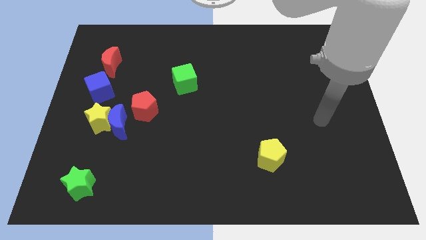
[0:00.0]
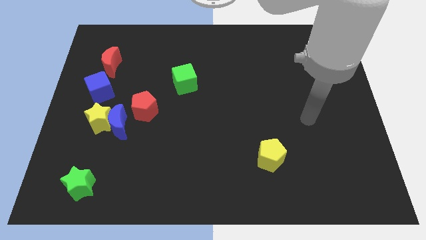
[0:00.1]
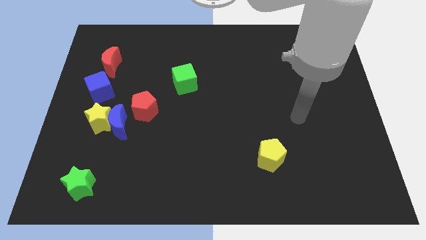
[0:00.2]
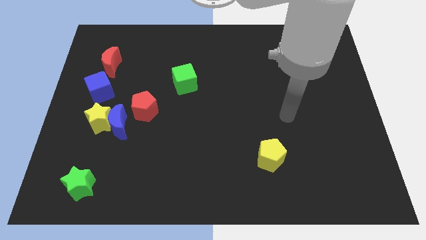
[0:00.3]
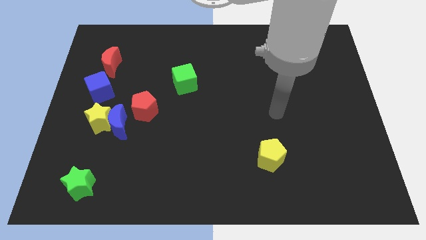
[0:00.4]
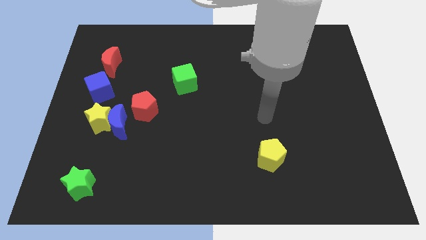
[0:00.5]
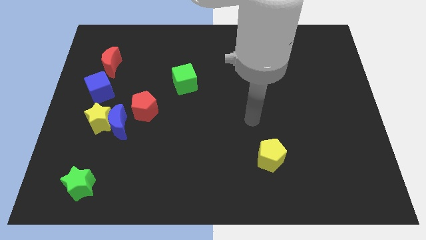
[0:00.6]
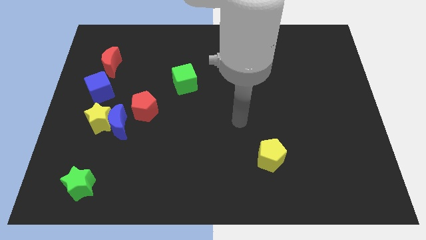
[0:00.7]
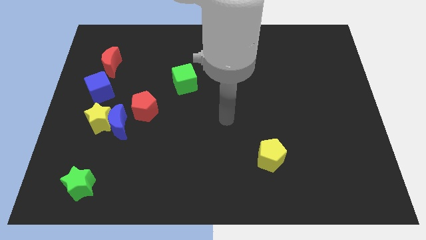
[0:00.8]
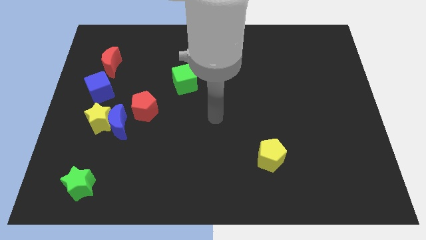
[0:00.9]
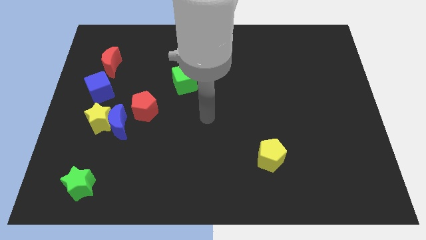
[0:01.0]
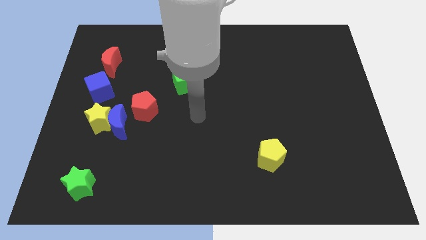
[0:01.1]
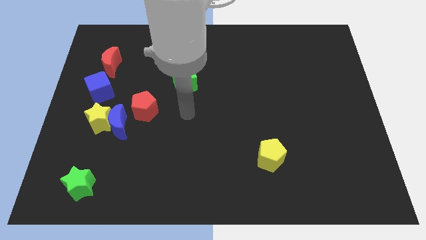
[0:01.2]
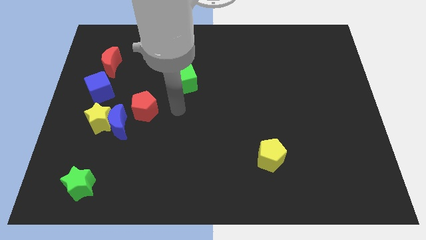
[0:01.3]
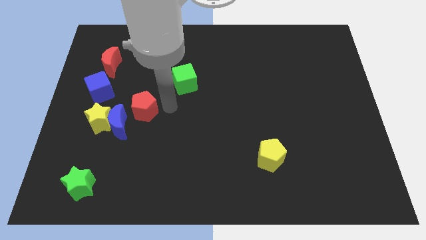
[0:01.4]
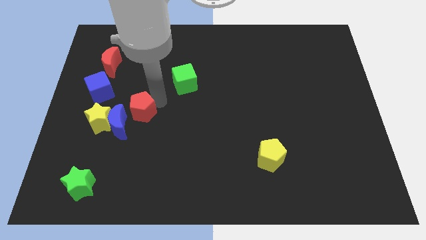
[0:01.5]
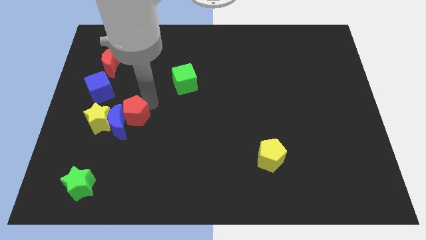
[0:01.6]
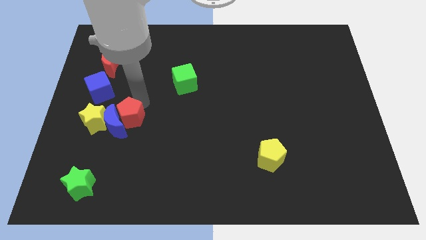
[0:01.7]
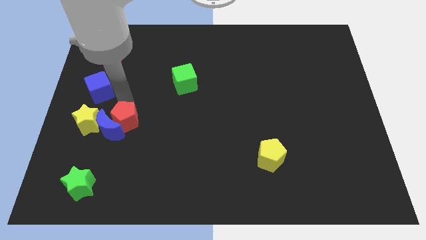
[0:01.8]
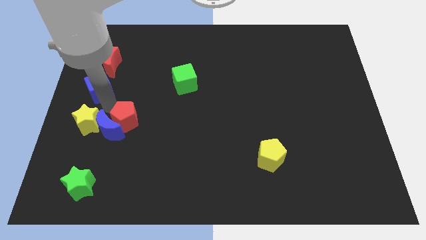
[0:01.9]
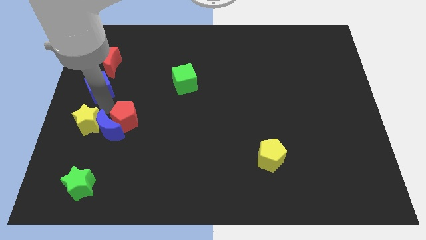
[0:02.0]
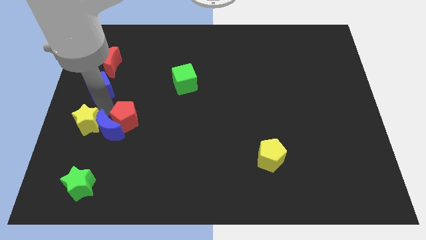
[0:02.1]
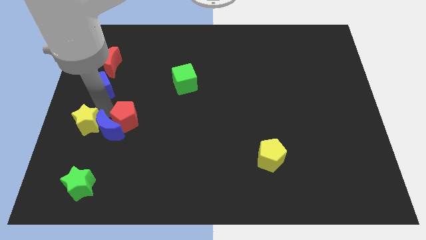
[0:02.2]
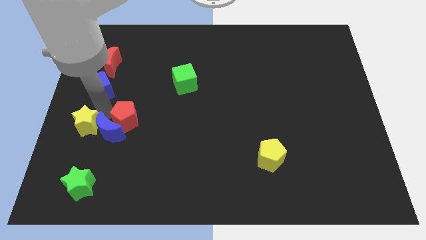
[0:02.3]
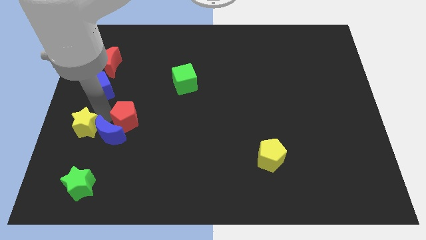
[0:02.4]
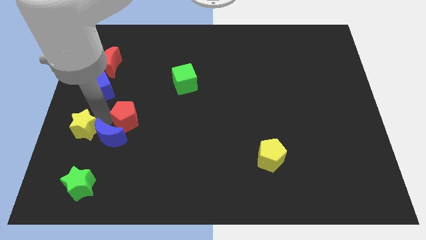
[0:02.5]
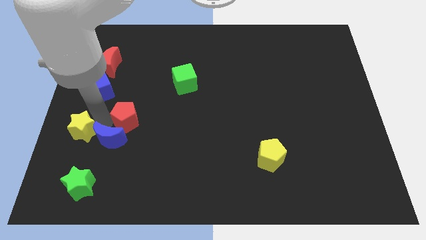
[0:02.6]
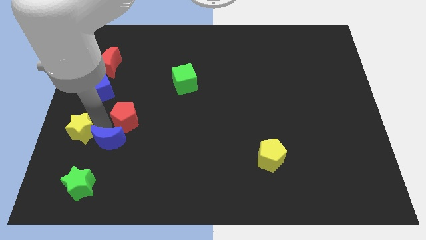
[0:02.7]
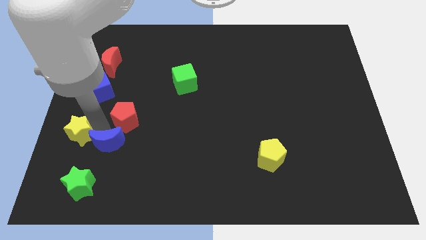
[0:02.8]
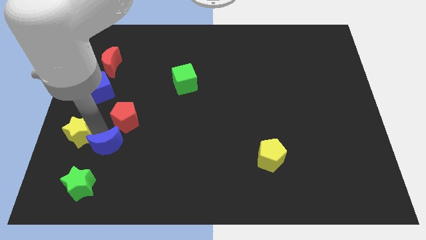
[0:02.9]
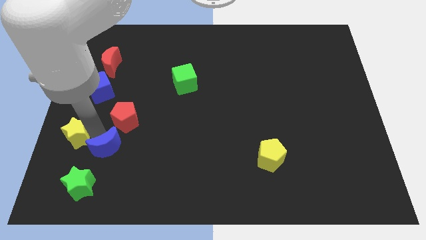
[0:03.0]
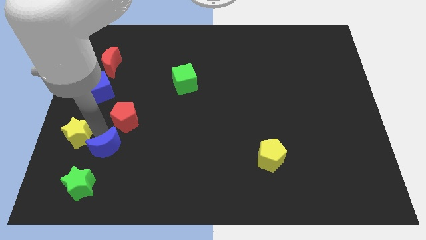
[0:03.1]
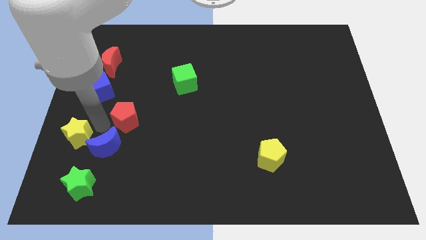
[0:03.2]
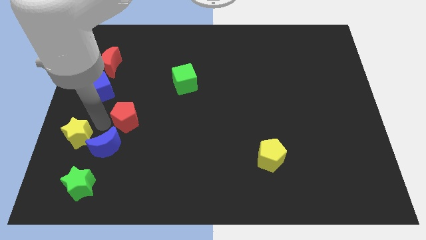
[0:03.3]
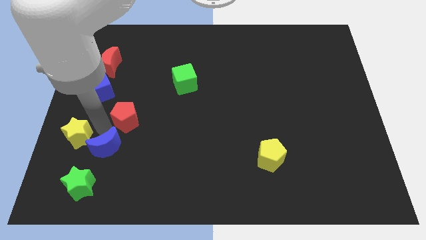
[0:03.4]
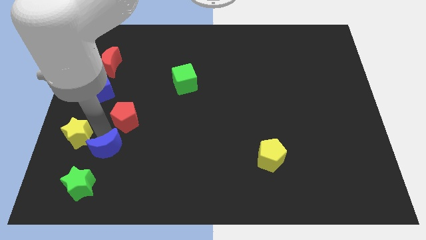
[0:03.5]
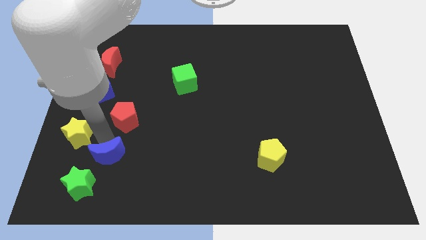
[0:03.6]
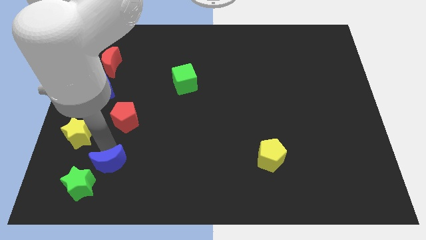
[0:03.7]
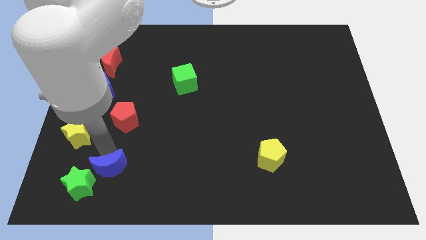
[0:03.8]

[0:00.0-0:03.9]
move the blue moon away from the yellow star and red pentagon

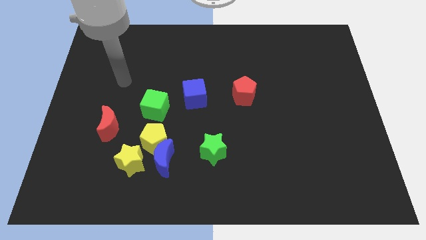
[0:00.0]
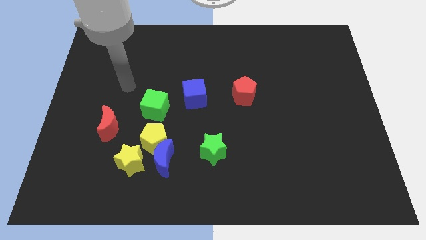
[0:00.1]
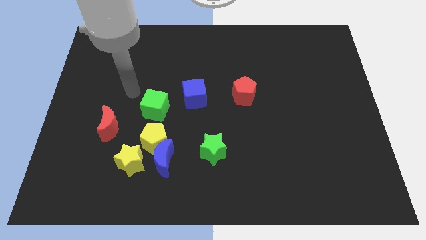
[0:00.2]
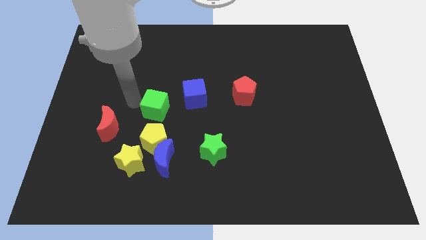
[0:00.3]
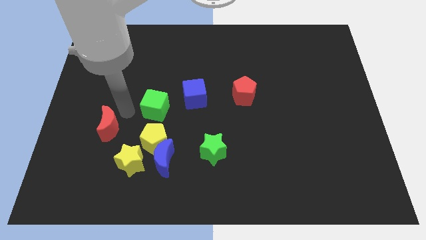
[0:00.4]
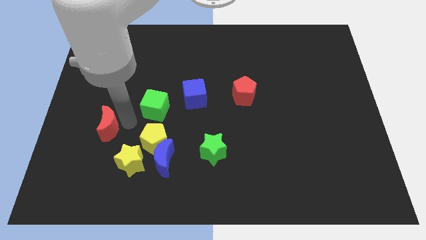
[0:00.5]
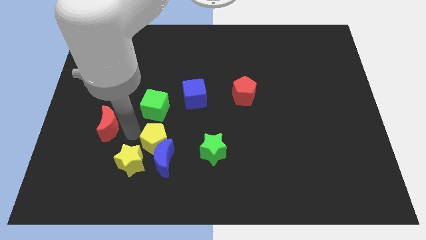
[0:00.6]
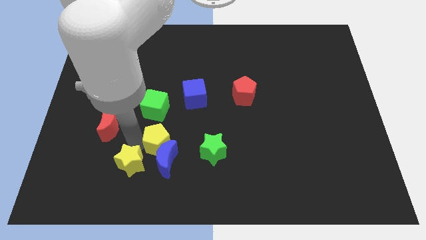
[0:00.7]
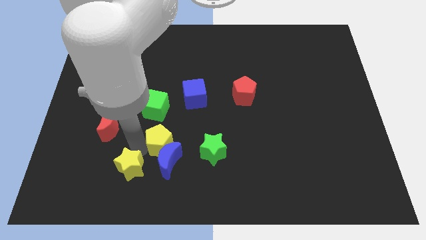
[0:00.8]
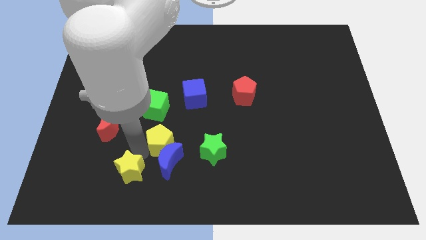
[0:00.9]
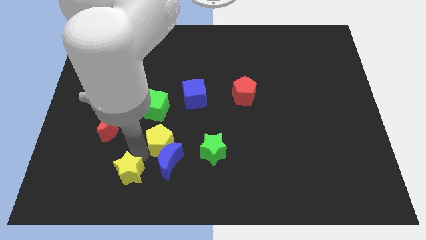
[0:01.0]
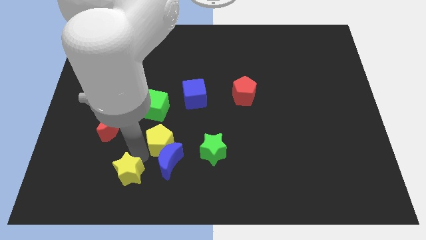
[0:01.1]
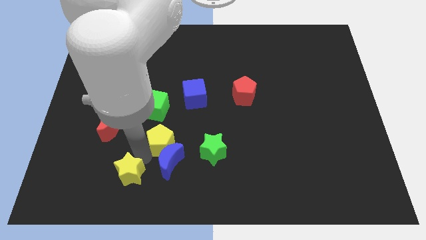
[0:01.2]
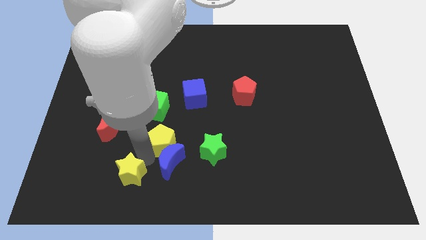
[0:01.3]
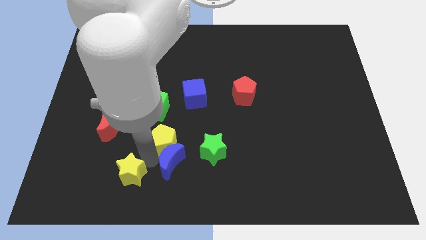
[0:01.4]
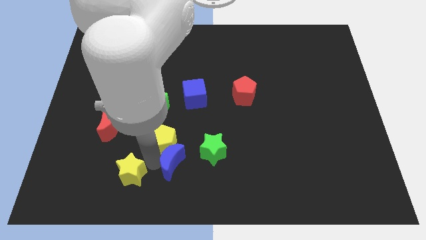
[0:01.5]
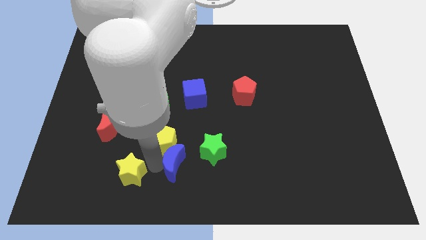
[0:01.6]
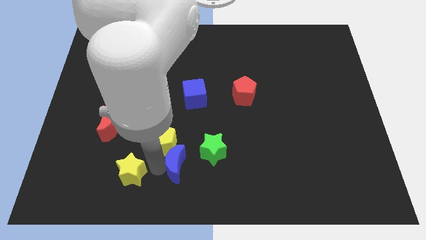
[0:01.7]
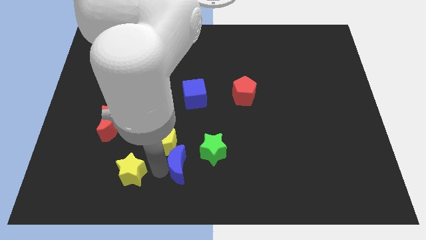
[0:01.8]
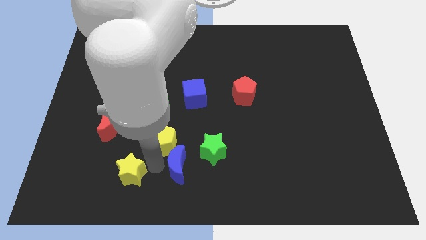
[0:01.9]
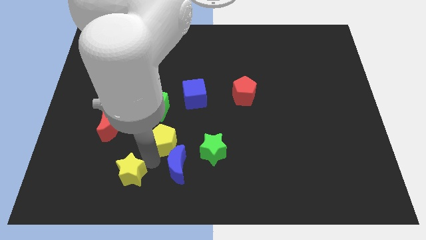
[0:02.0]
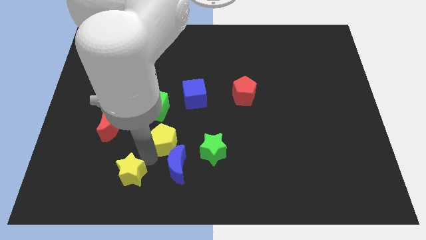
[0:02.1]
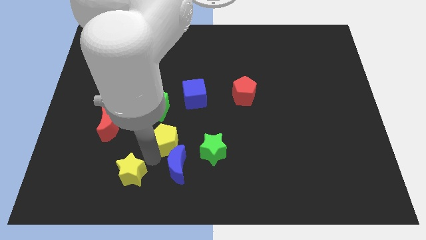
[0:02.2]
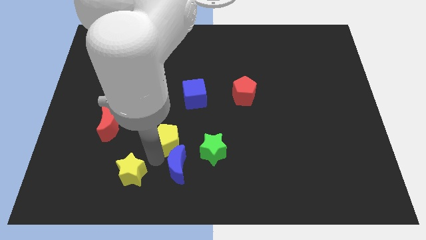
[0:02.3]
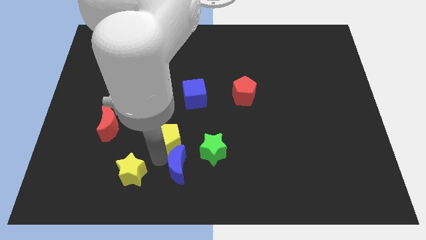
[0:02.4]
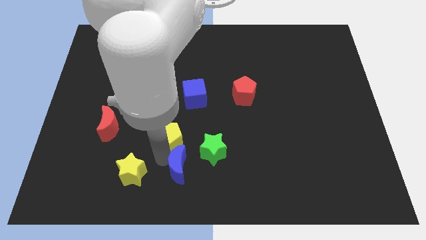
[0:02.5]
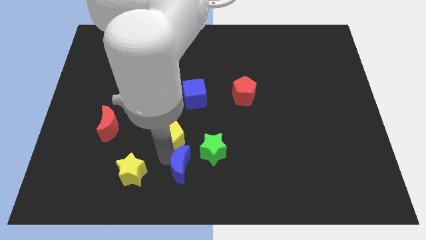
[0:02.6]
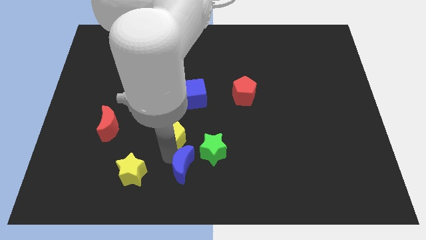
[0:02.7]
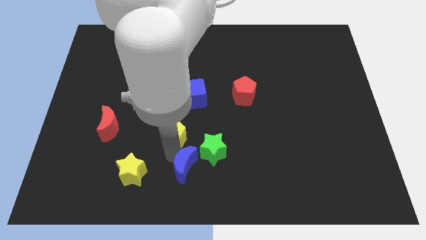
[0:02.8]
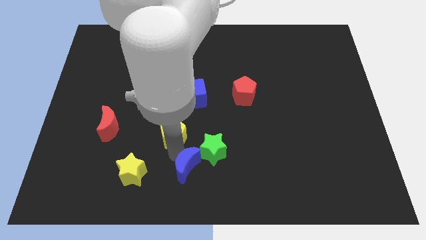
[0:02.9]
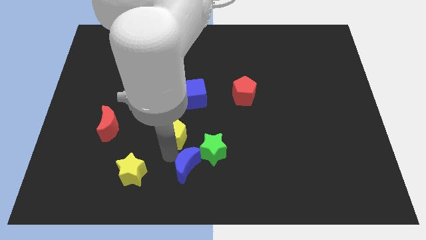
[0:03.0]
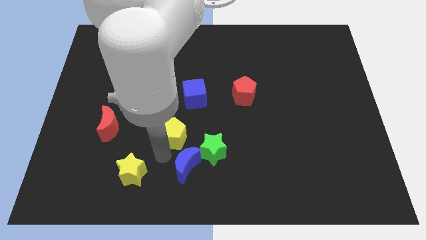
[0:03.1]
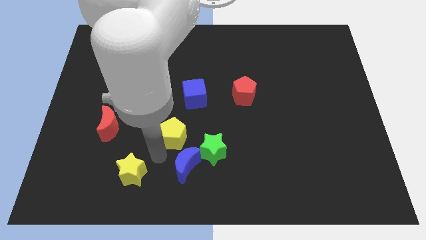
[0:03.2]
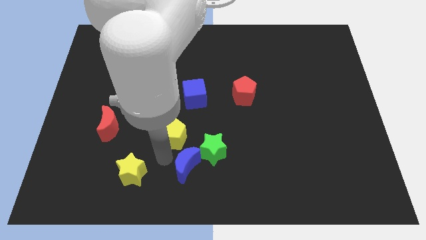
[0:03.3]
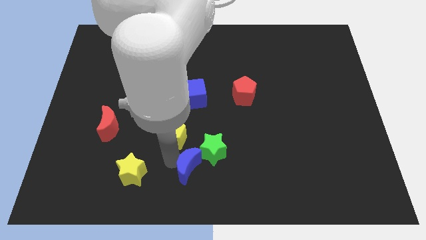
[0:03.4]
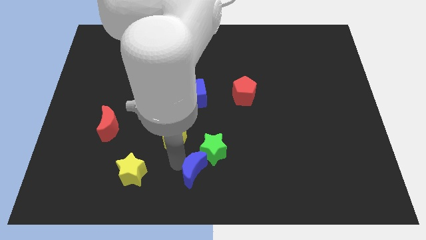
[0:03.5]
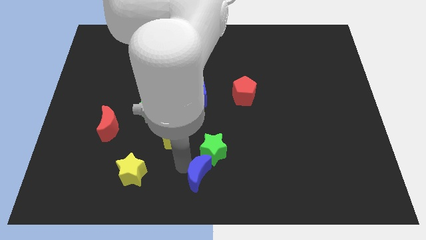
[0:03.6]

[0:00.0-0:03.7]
separate the blue moon from the yellow pentagon and yellow star

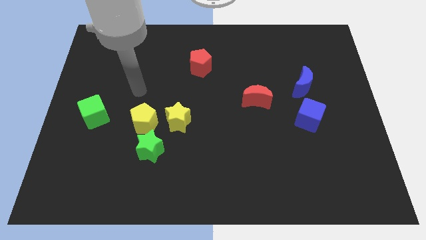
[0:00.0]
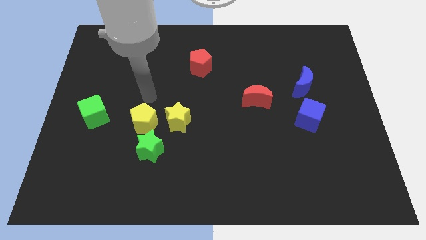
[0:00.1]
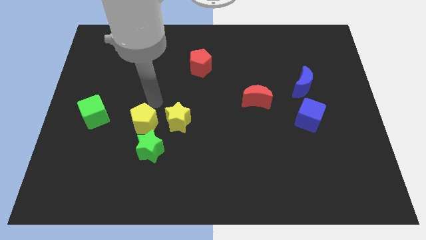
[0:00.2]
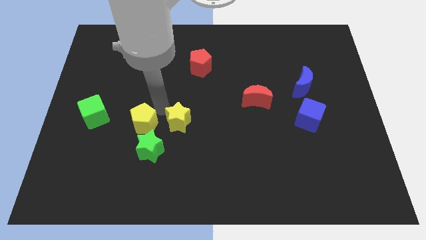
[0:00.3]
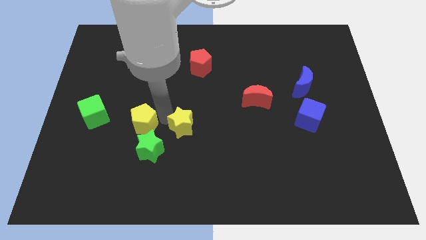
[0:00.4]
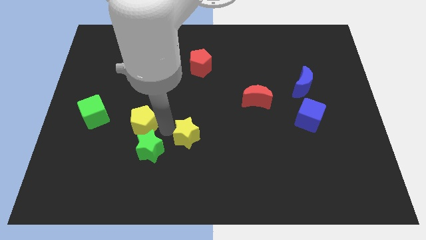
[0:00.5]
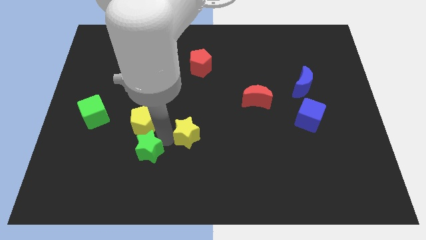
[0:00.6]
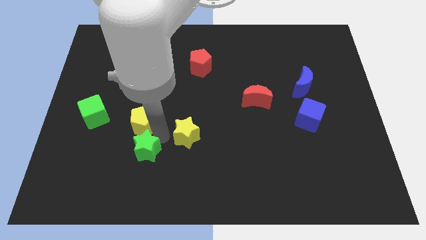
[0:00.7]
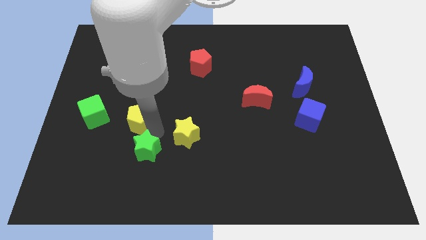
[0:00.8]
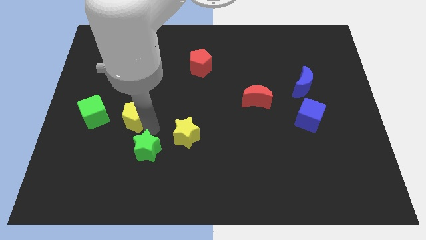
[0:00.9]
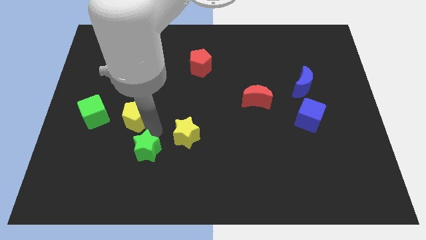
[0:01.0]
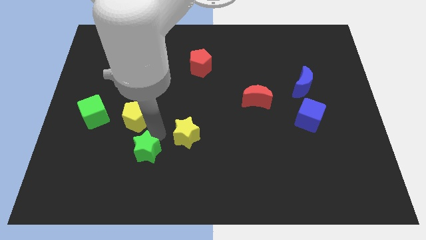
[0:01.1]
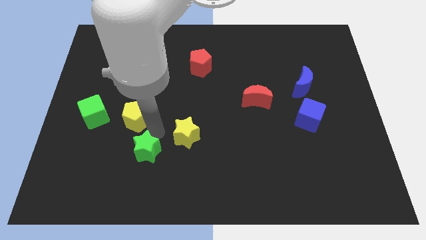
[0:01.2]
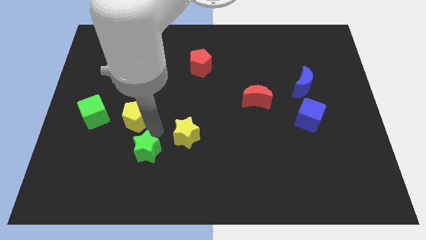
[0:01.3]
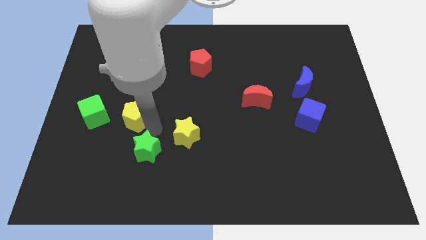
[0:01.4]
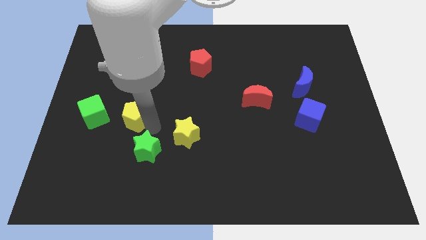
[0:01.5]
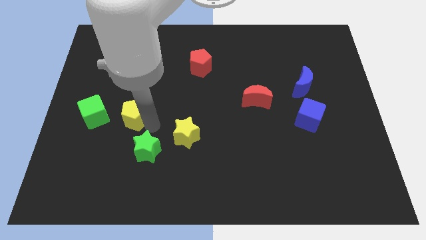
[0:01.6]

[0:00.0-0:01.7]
separate the yellow pentagon from the yellow star and green star

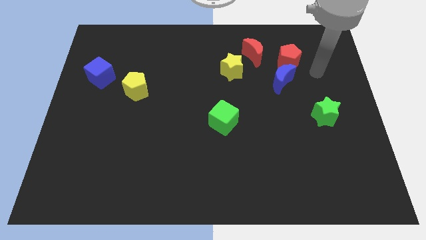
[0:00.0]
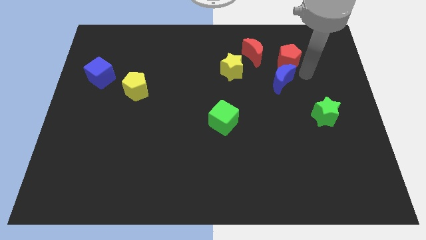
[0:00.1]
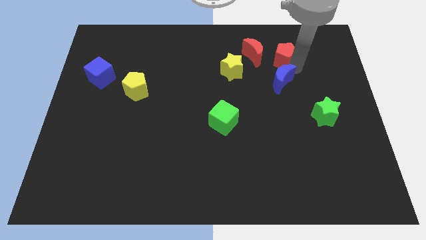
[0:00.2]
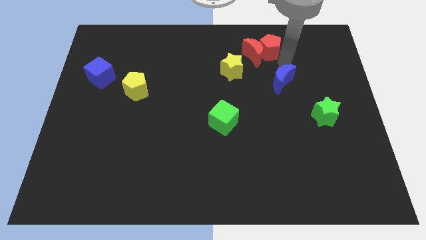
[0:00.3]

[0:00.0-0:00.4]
move the blue moon away from the red pentagon
